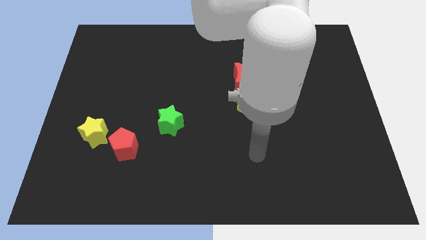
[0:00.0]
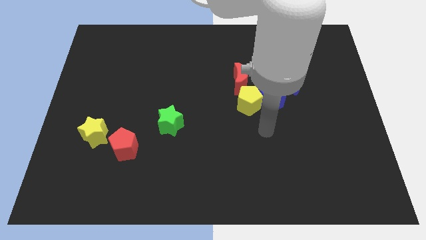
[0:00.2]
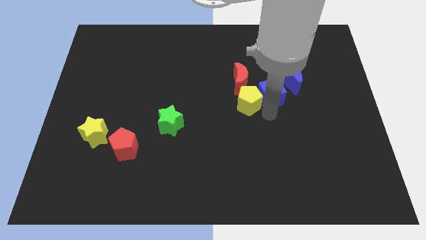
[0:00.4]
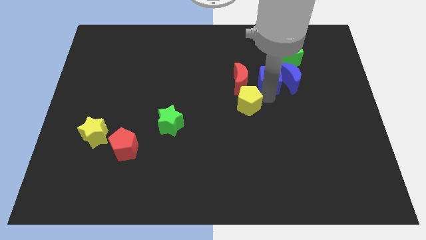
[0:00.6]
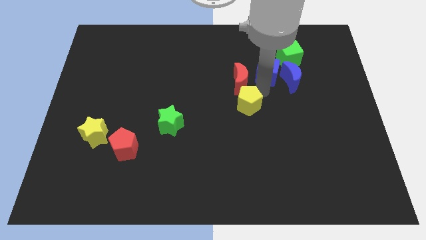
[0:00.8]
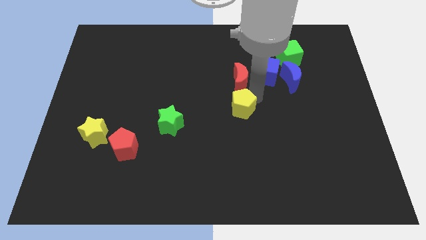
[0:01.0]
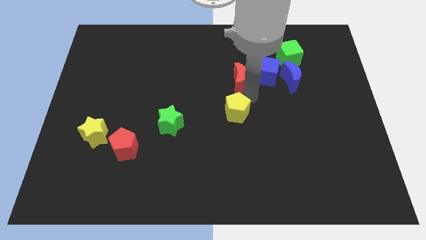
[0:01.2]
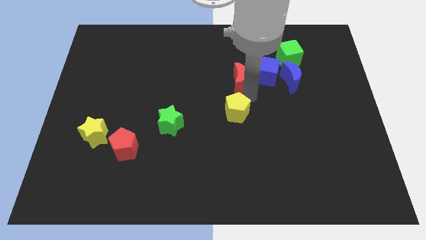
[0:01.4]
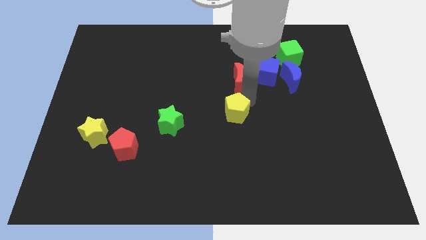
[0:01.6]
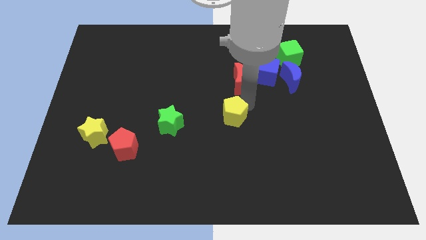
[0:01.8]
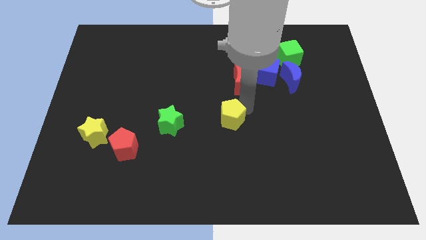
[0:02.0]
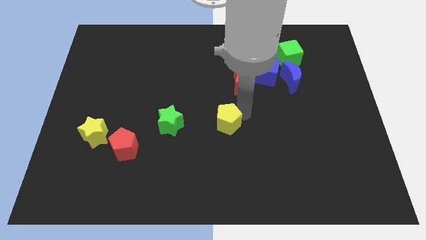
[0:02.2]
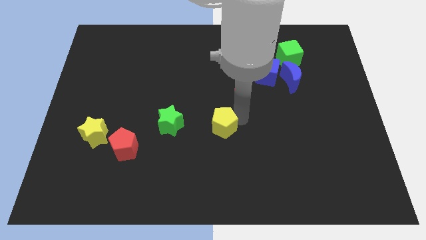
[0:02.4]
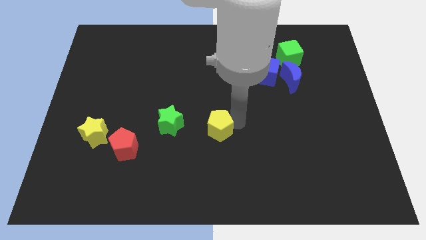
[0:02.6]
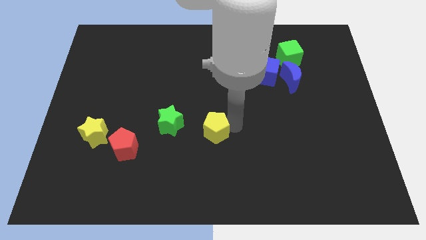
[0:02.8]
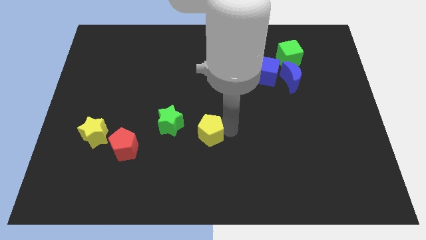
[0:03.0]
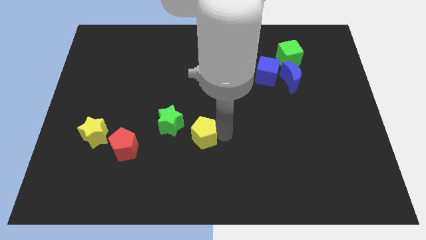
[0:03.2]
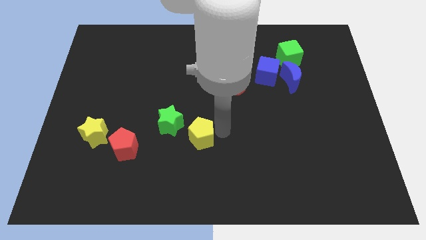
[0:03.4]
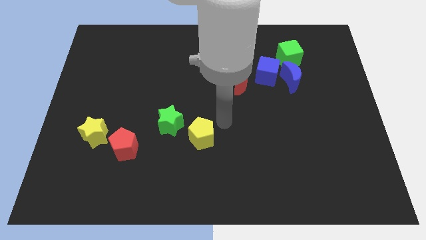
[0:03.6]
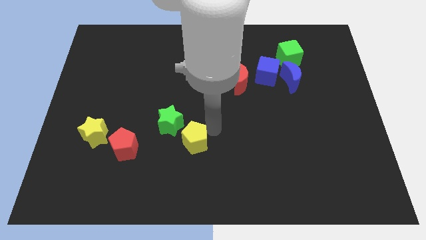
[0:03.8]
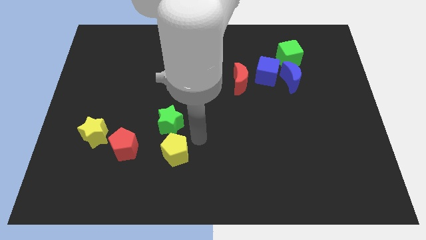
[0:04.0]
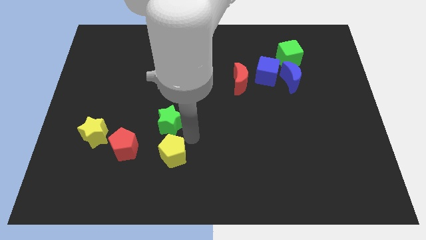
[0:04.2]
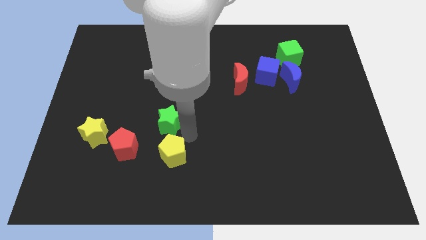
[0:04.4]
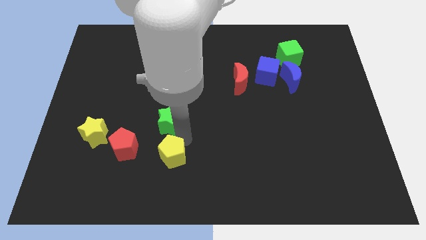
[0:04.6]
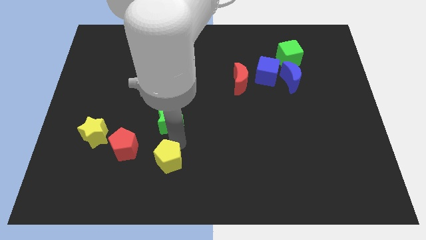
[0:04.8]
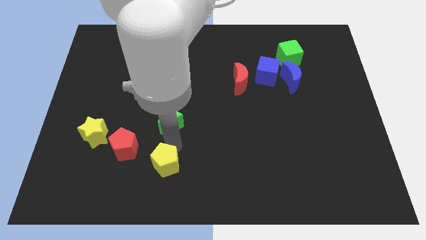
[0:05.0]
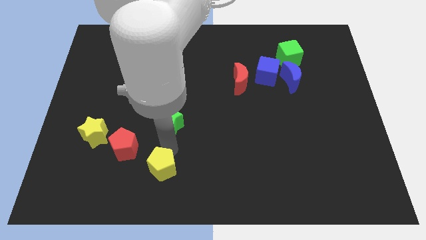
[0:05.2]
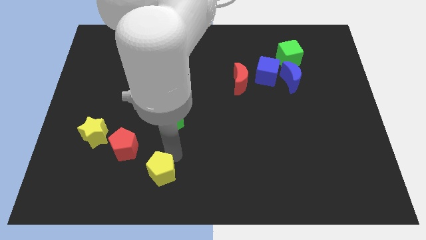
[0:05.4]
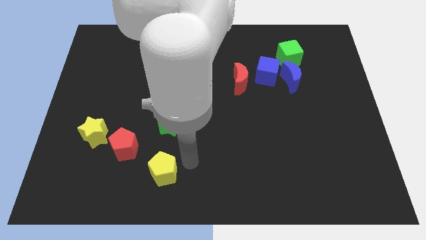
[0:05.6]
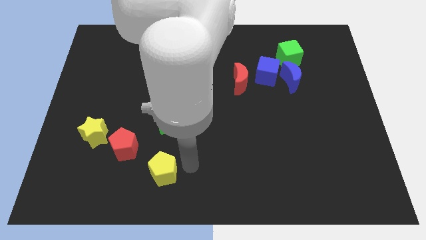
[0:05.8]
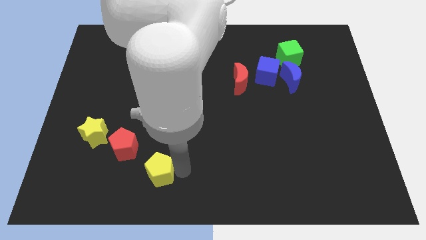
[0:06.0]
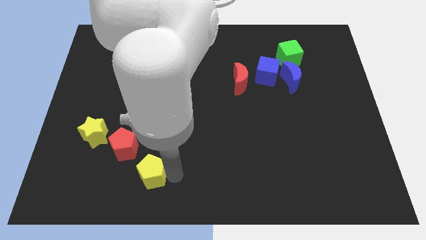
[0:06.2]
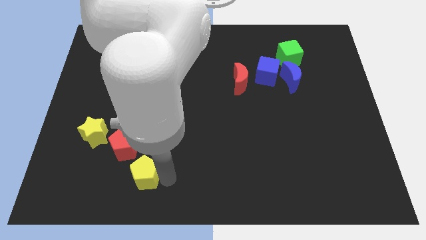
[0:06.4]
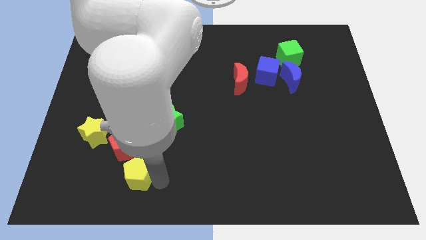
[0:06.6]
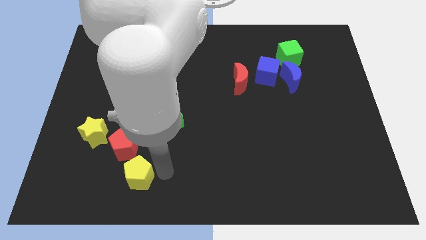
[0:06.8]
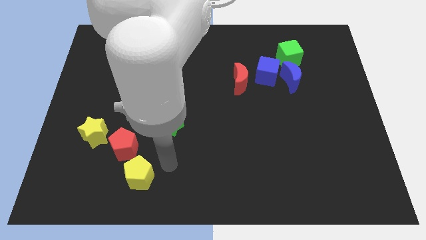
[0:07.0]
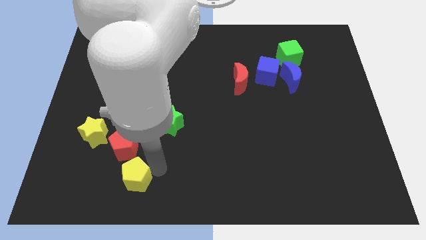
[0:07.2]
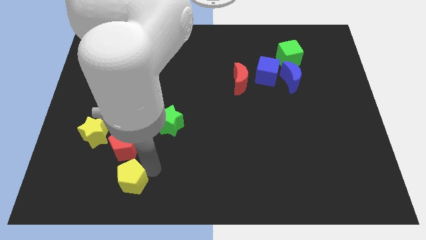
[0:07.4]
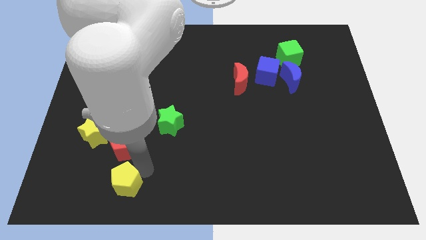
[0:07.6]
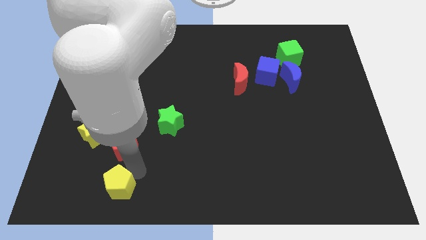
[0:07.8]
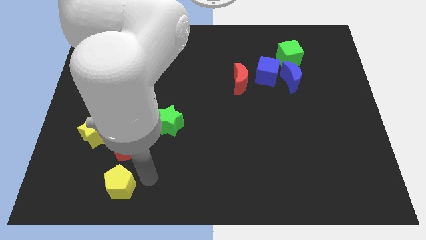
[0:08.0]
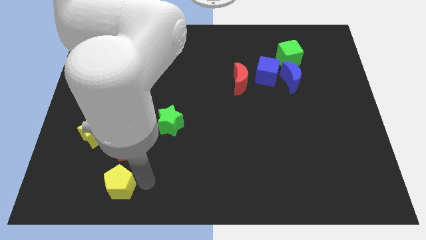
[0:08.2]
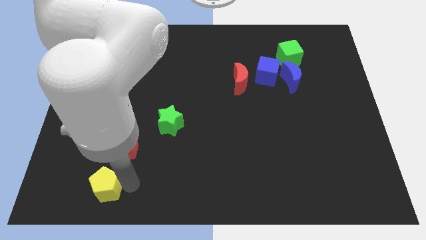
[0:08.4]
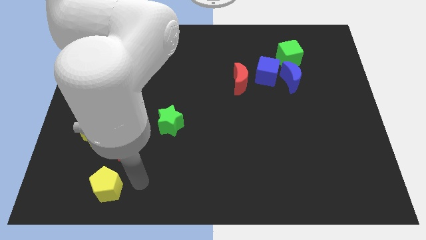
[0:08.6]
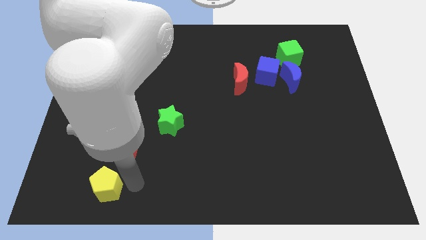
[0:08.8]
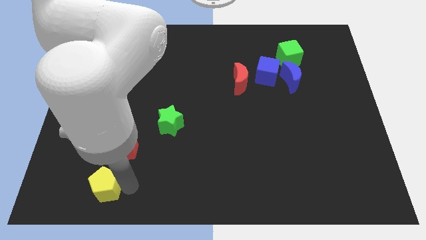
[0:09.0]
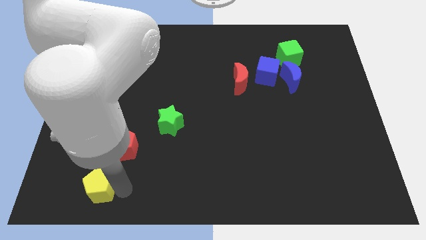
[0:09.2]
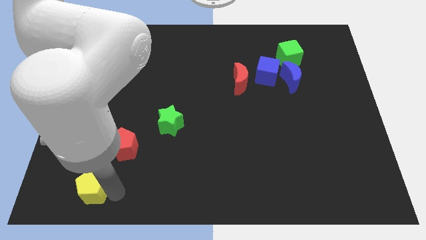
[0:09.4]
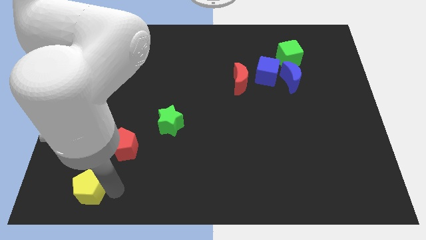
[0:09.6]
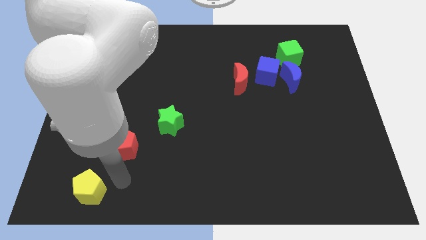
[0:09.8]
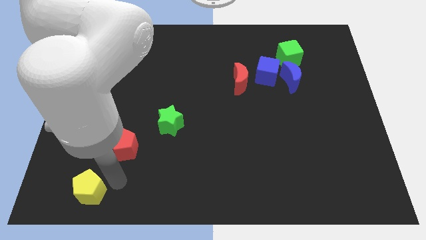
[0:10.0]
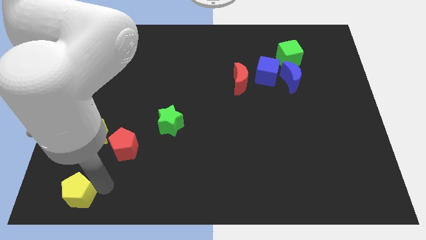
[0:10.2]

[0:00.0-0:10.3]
put the yellow pentagon to the bottom left of the board
